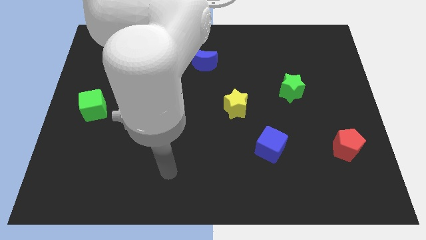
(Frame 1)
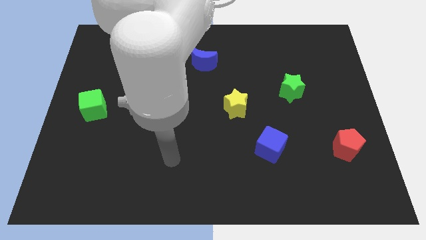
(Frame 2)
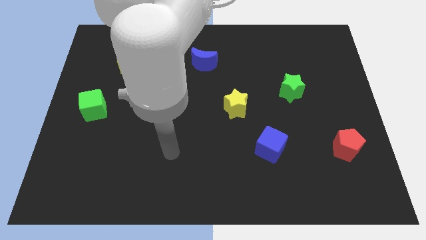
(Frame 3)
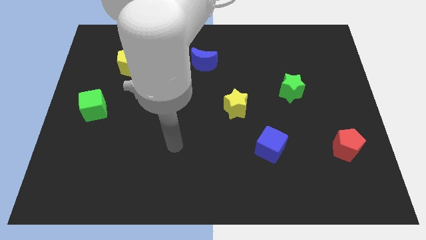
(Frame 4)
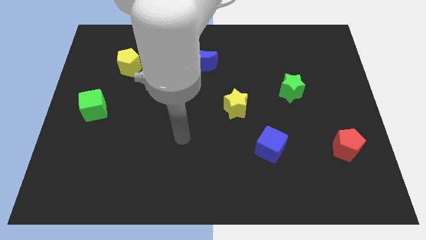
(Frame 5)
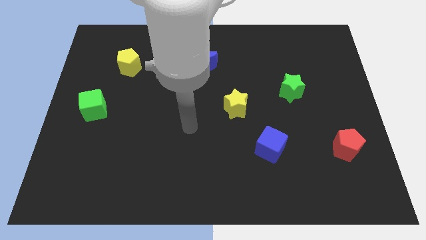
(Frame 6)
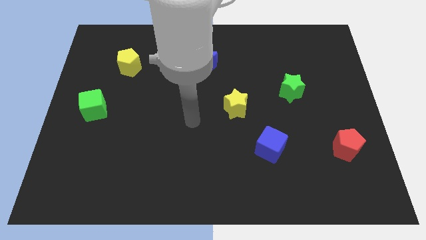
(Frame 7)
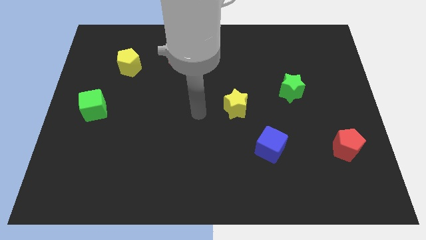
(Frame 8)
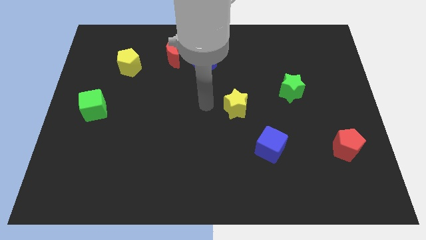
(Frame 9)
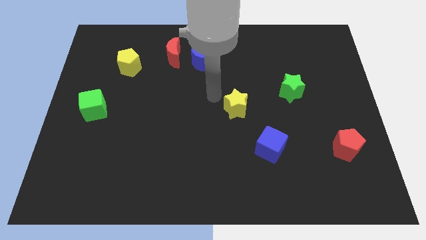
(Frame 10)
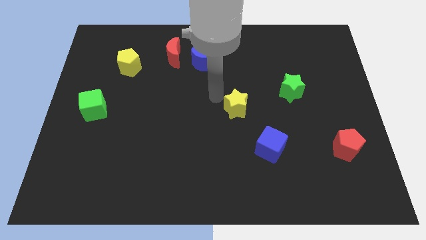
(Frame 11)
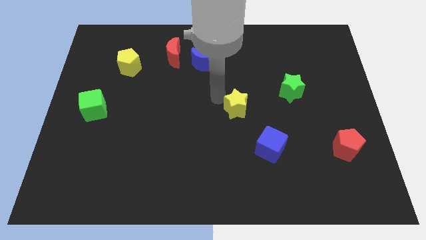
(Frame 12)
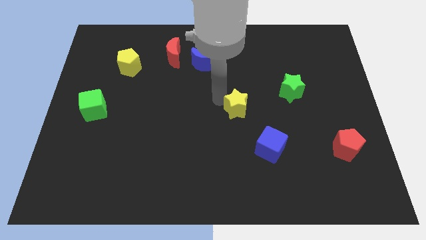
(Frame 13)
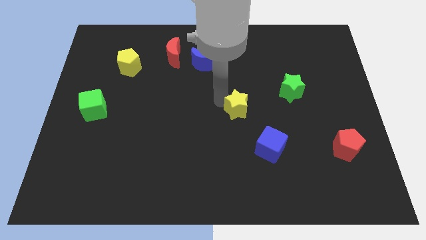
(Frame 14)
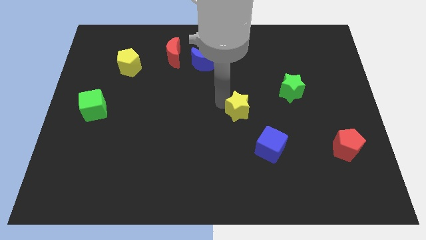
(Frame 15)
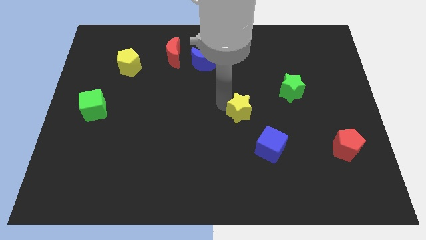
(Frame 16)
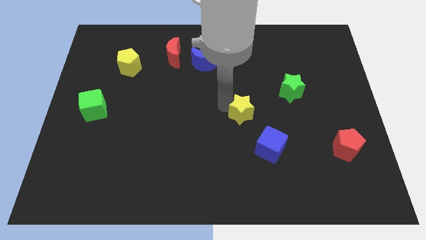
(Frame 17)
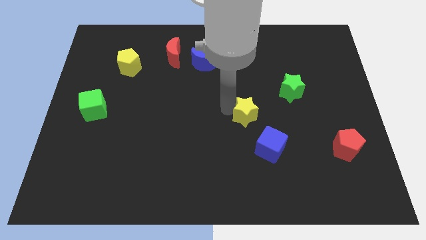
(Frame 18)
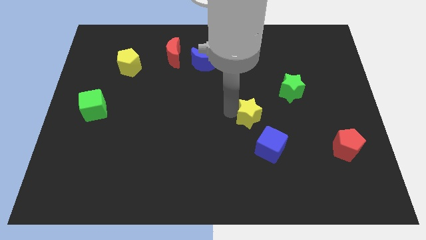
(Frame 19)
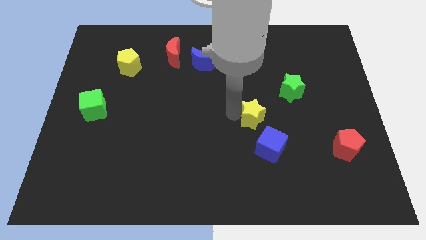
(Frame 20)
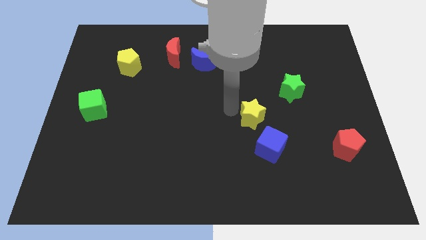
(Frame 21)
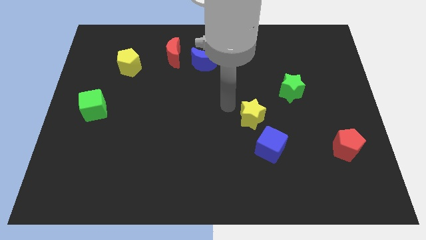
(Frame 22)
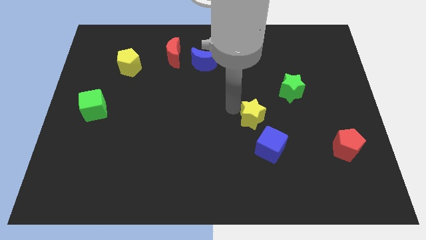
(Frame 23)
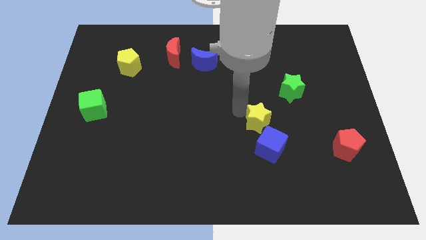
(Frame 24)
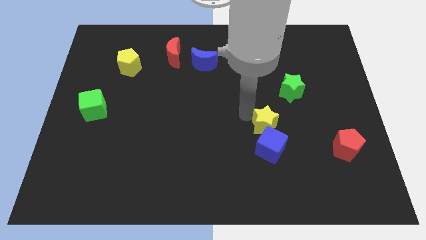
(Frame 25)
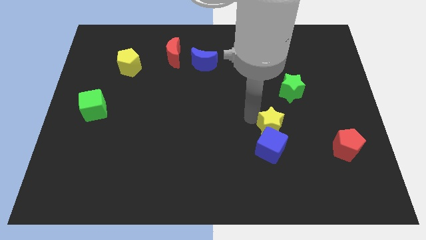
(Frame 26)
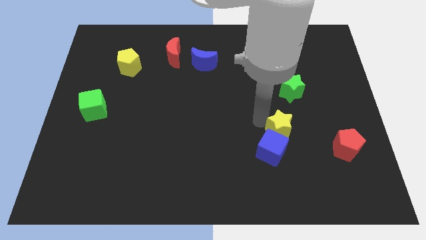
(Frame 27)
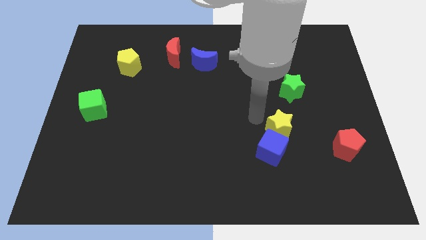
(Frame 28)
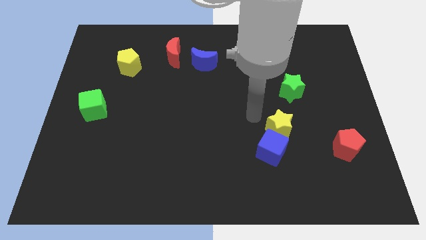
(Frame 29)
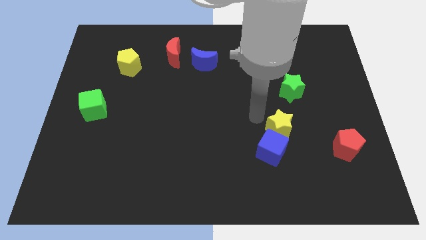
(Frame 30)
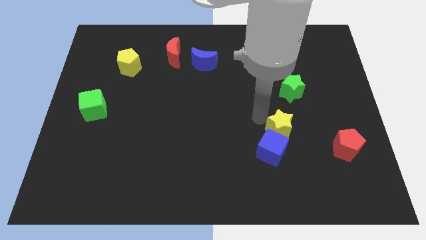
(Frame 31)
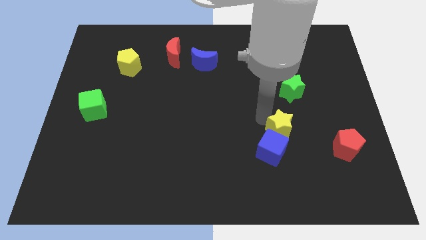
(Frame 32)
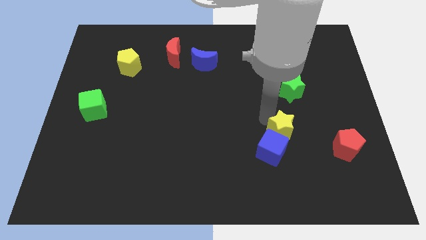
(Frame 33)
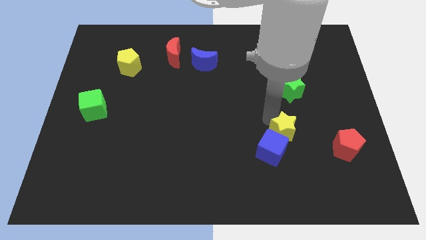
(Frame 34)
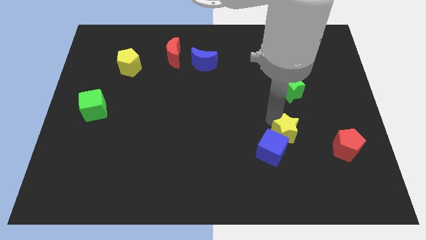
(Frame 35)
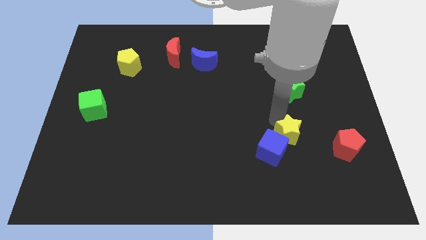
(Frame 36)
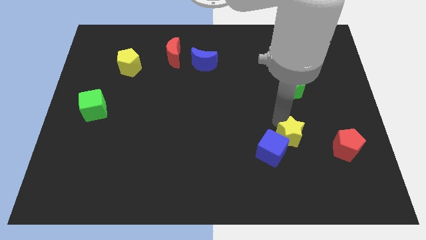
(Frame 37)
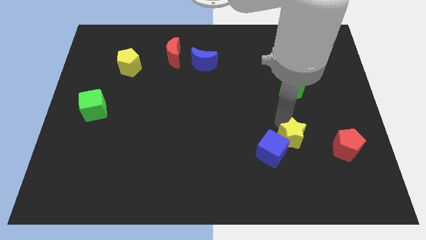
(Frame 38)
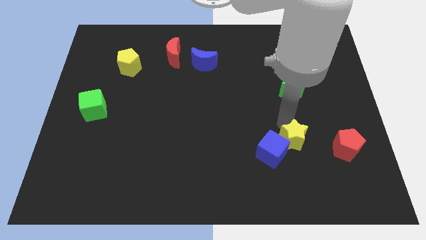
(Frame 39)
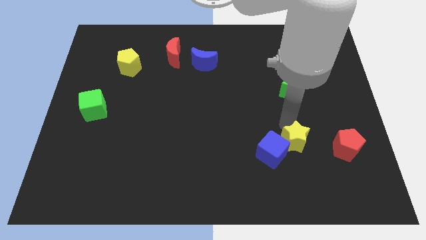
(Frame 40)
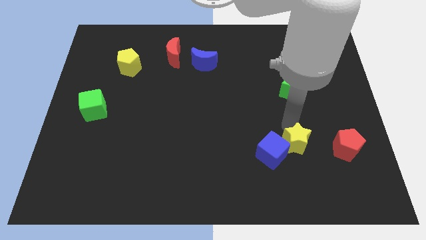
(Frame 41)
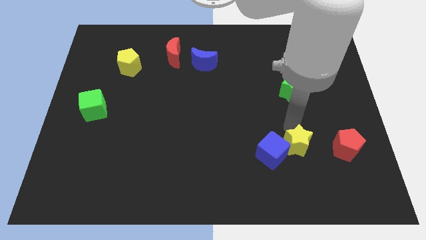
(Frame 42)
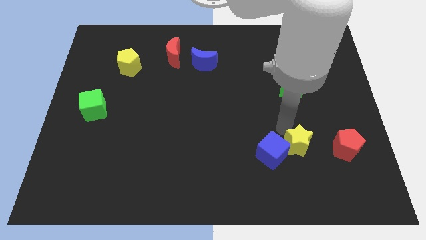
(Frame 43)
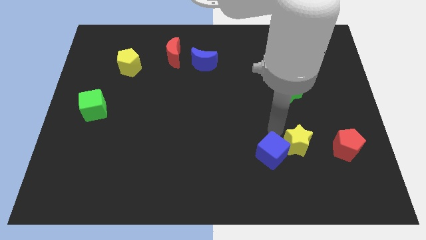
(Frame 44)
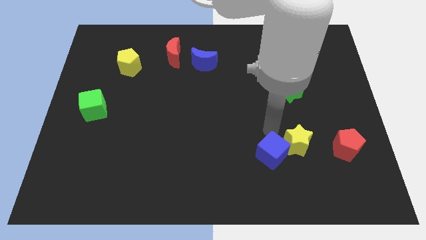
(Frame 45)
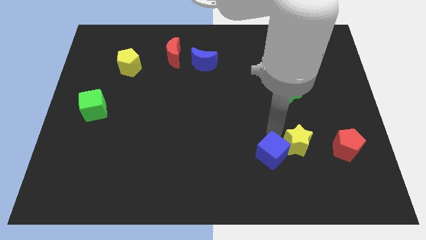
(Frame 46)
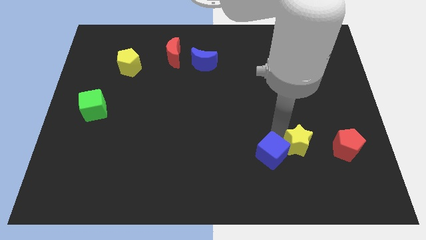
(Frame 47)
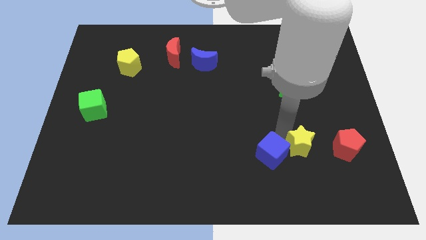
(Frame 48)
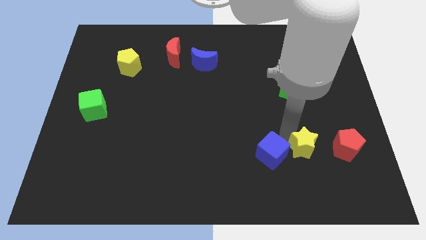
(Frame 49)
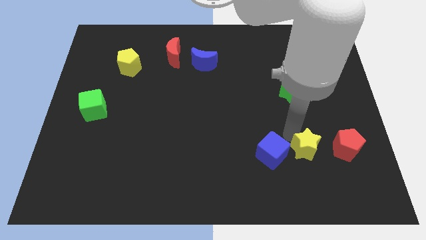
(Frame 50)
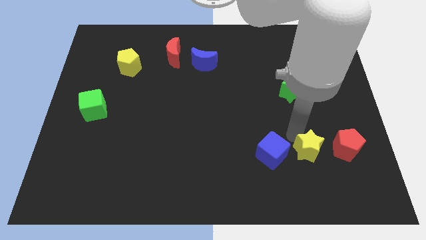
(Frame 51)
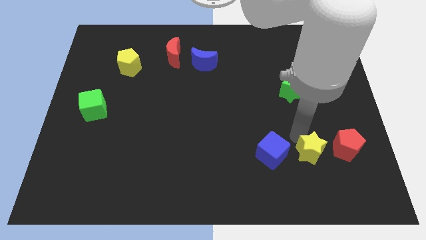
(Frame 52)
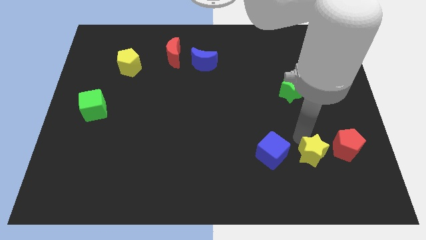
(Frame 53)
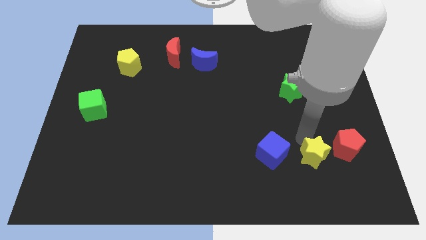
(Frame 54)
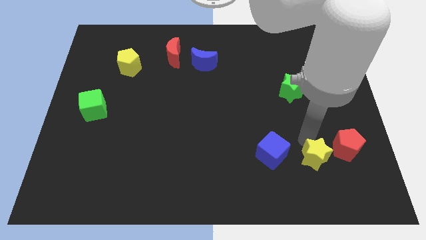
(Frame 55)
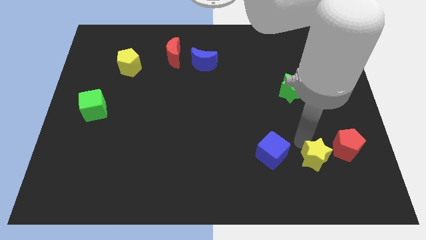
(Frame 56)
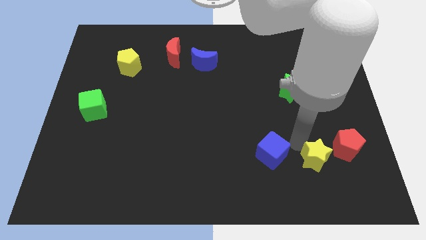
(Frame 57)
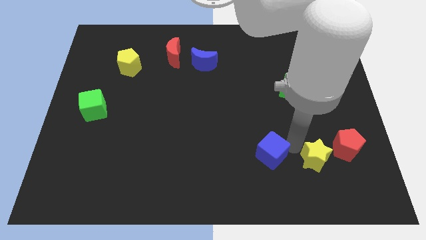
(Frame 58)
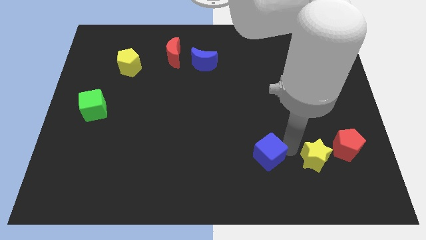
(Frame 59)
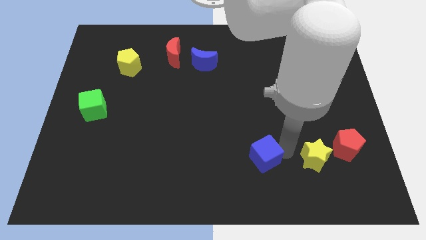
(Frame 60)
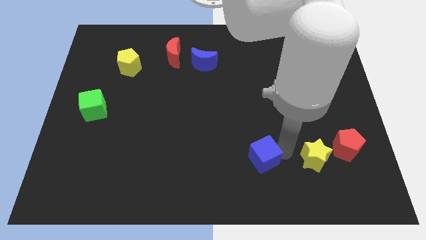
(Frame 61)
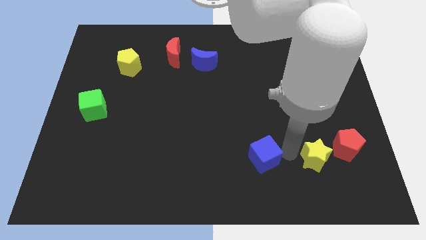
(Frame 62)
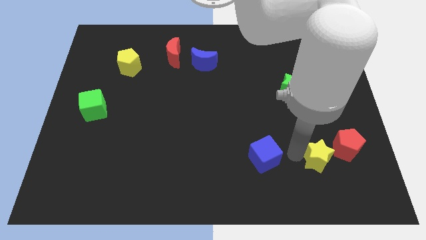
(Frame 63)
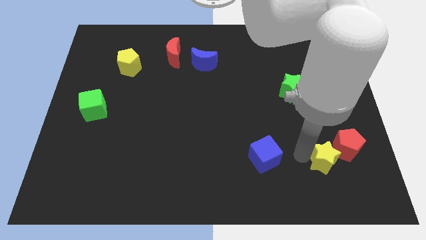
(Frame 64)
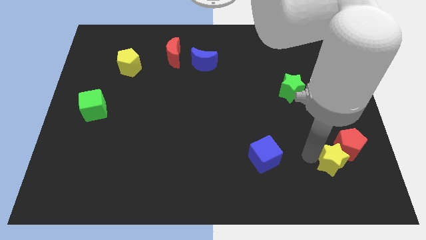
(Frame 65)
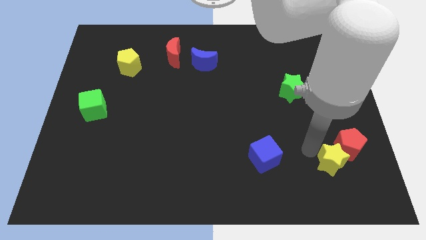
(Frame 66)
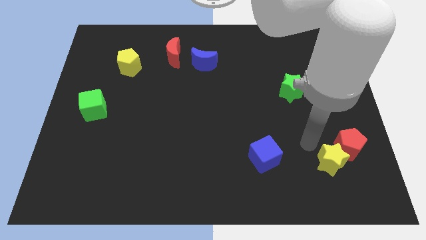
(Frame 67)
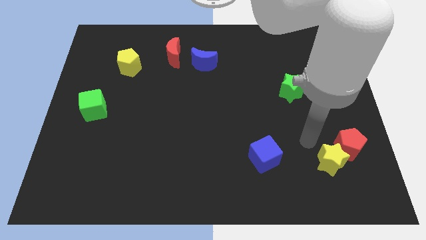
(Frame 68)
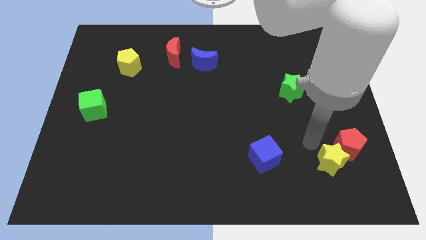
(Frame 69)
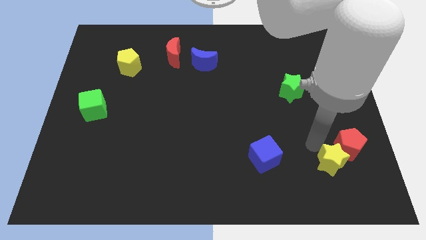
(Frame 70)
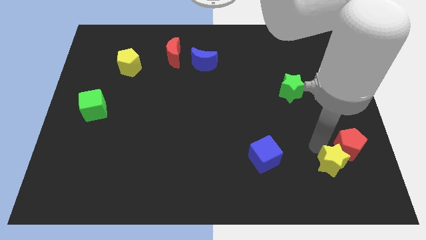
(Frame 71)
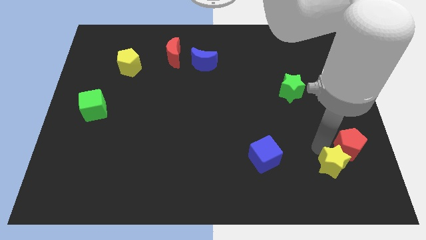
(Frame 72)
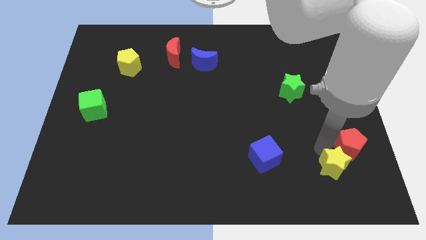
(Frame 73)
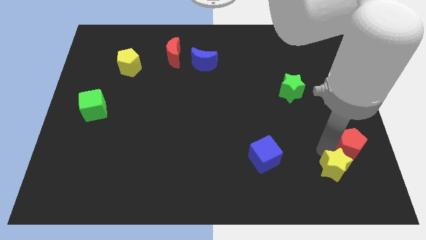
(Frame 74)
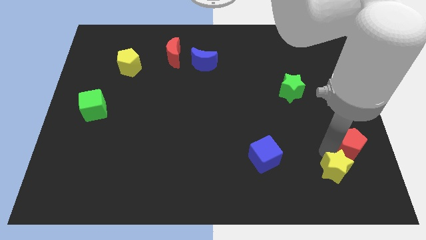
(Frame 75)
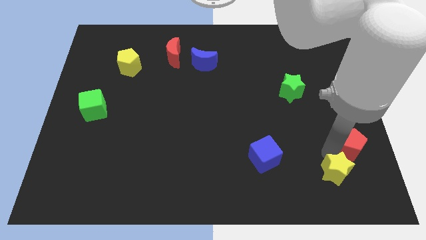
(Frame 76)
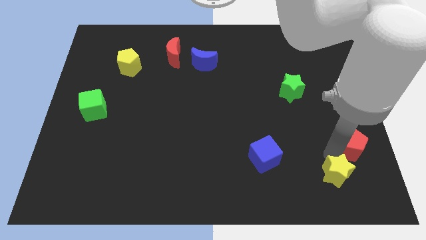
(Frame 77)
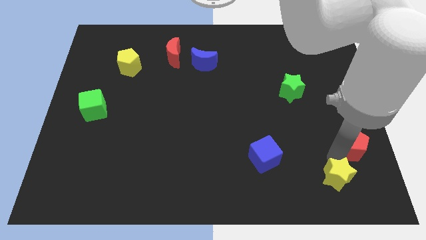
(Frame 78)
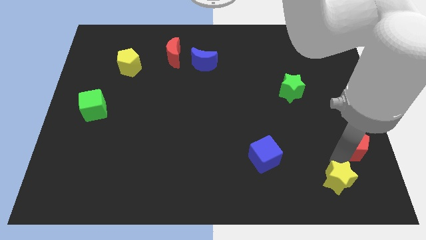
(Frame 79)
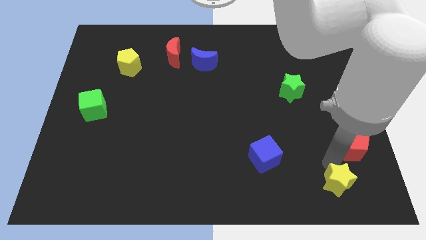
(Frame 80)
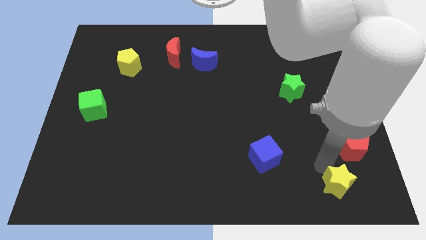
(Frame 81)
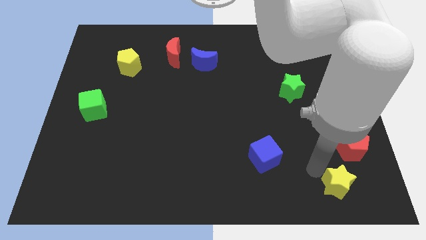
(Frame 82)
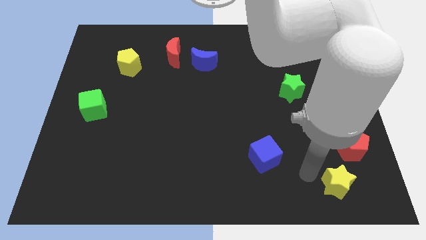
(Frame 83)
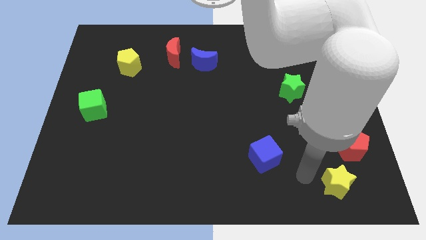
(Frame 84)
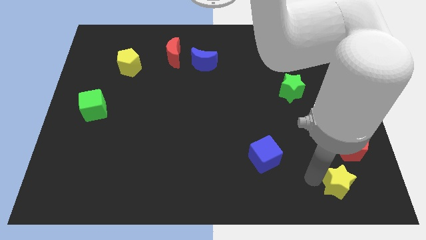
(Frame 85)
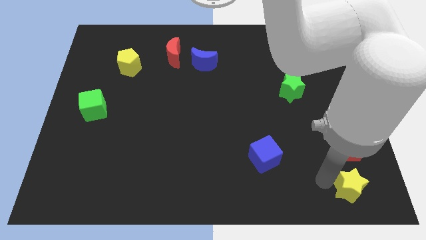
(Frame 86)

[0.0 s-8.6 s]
move the yellow star to the bottom right
